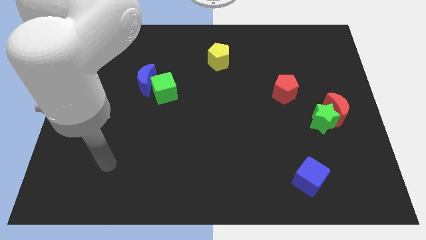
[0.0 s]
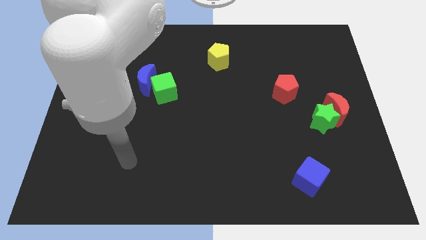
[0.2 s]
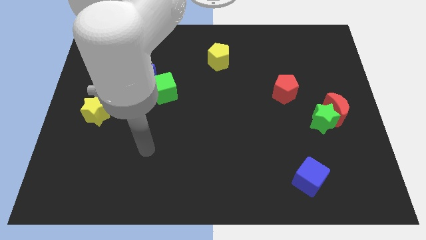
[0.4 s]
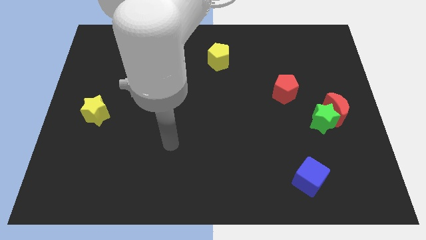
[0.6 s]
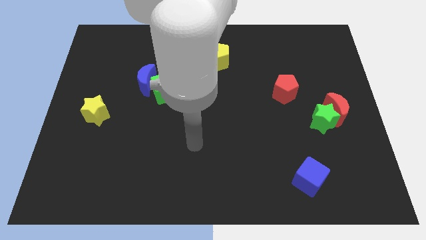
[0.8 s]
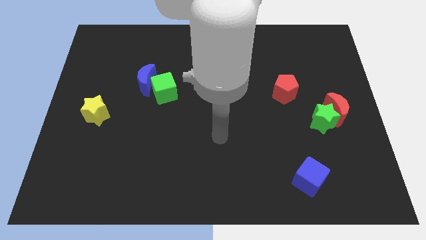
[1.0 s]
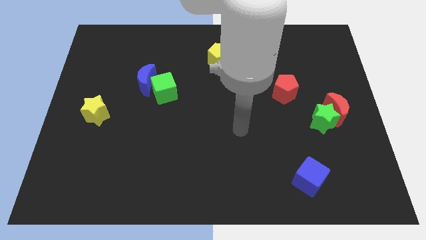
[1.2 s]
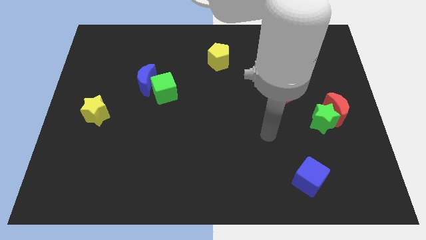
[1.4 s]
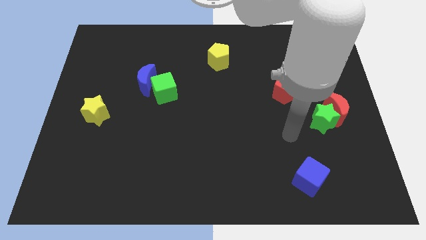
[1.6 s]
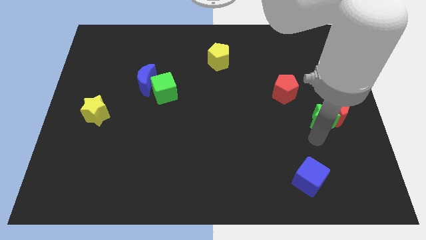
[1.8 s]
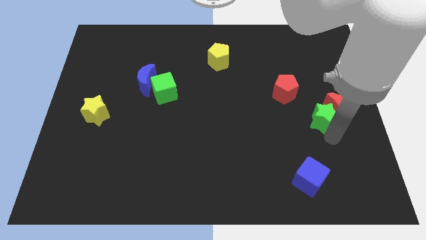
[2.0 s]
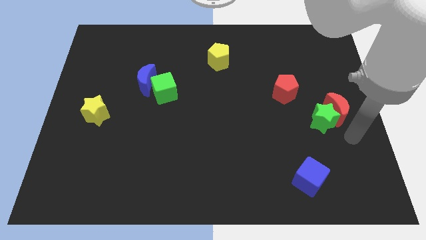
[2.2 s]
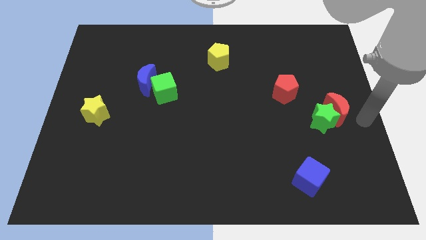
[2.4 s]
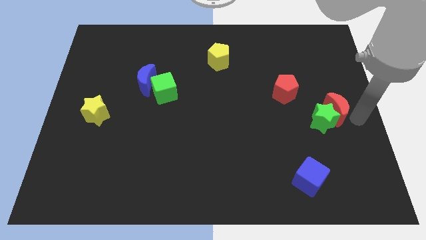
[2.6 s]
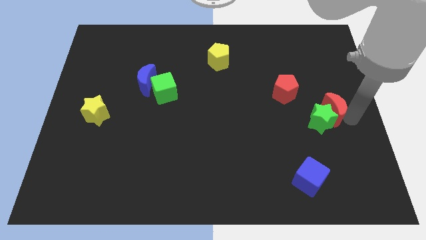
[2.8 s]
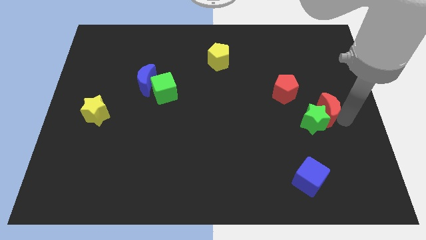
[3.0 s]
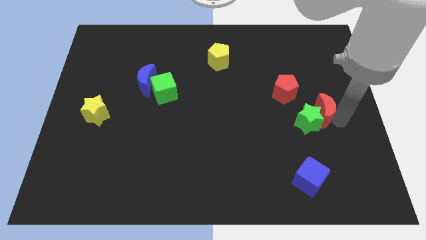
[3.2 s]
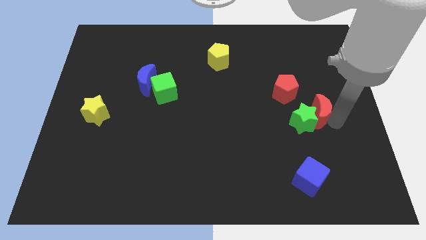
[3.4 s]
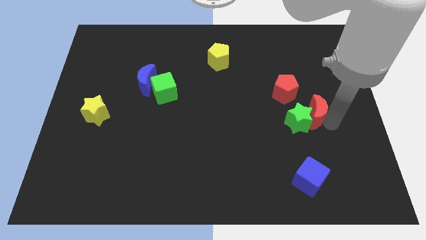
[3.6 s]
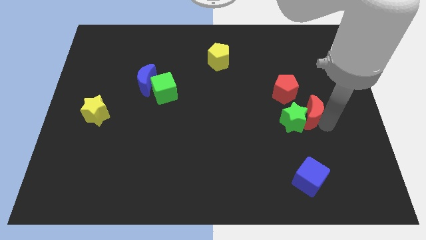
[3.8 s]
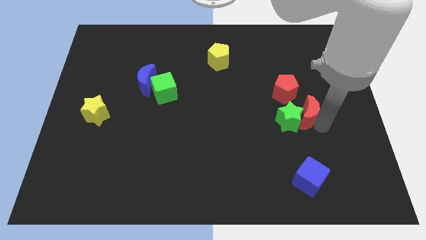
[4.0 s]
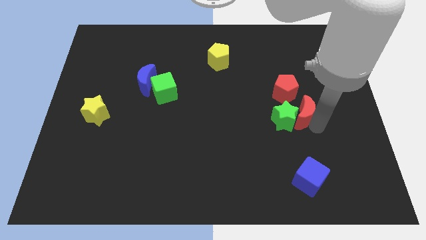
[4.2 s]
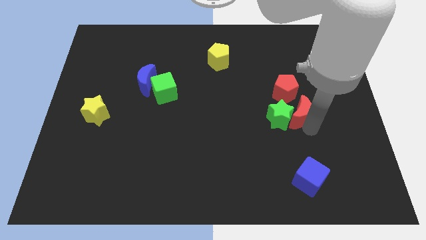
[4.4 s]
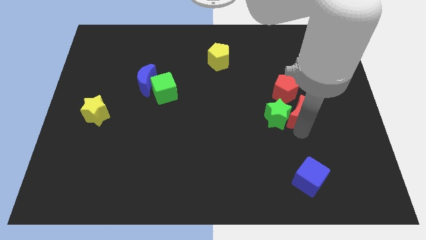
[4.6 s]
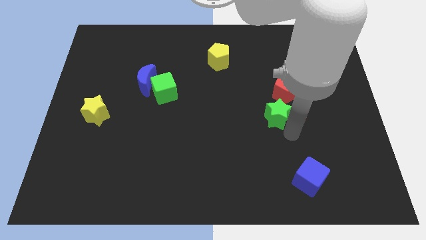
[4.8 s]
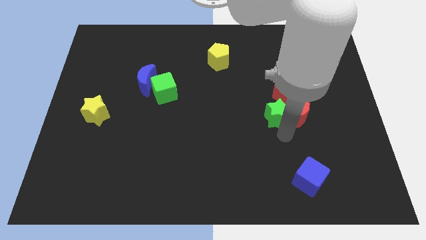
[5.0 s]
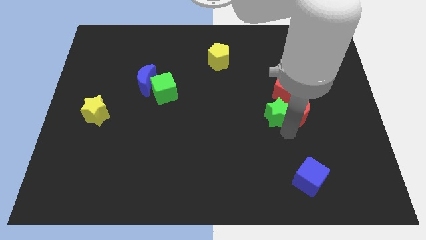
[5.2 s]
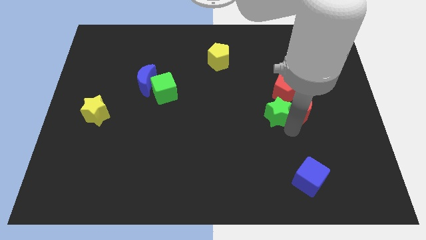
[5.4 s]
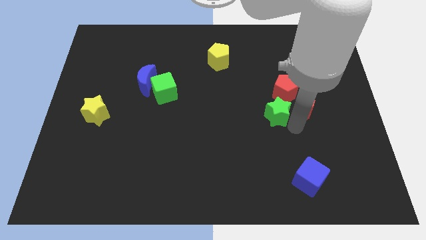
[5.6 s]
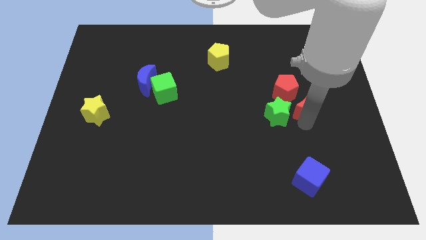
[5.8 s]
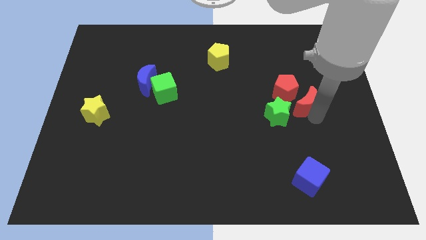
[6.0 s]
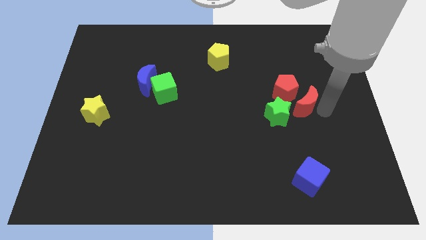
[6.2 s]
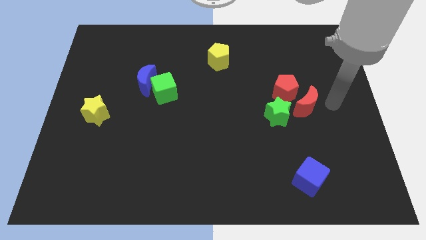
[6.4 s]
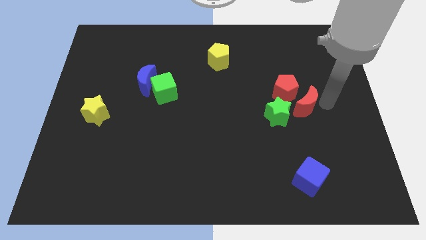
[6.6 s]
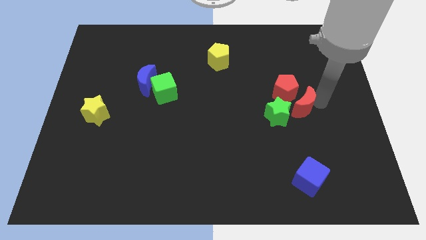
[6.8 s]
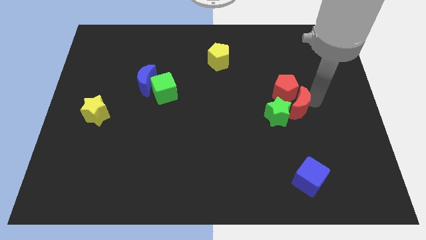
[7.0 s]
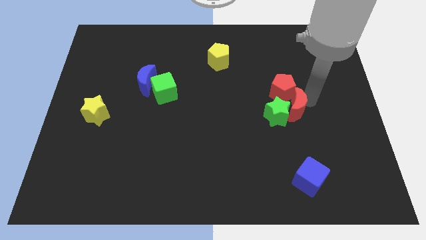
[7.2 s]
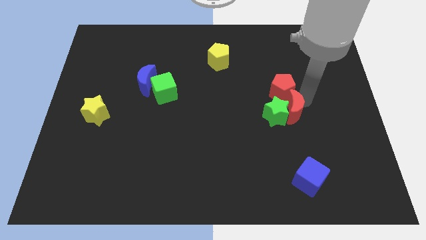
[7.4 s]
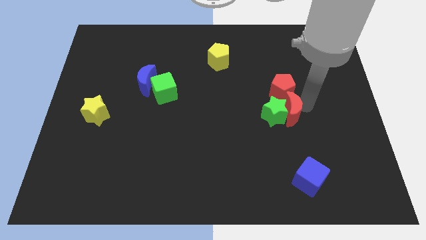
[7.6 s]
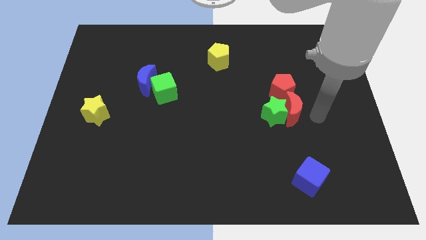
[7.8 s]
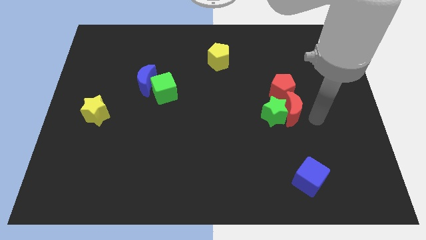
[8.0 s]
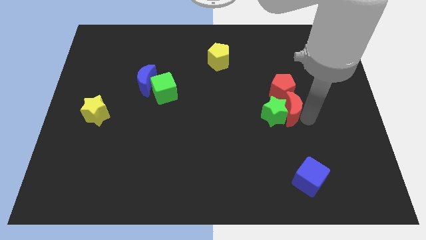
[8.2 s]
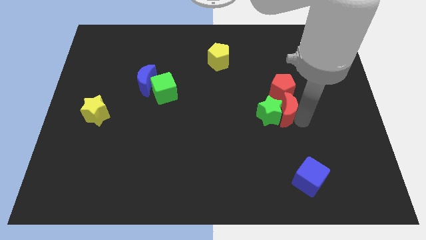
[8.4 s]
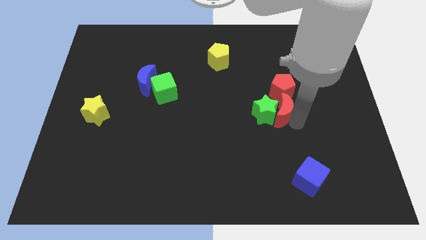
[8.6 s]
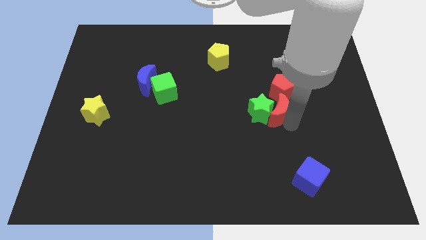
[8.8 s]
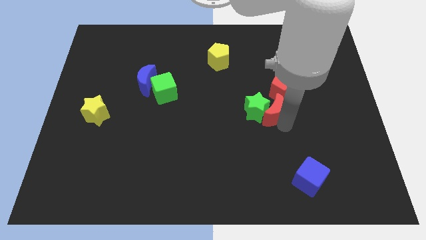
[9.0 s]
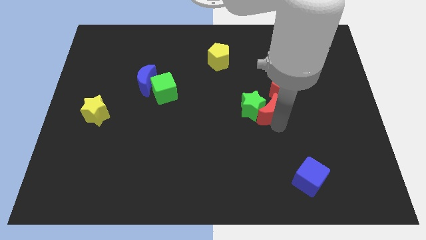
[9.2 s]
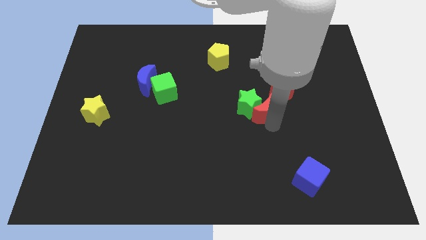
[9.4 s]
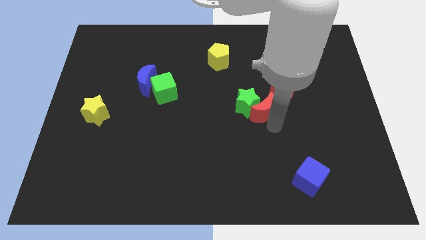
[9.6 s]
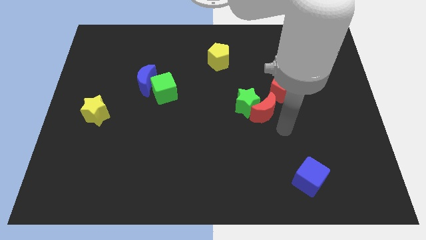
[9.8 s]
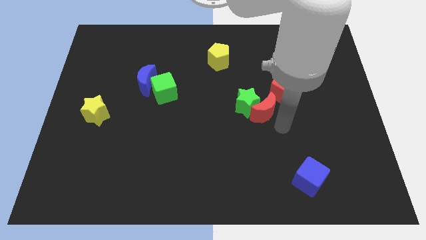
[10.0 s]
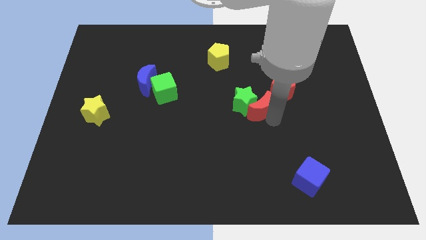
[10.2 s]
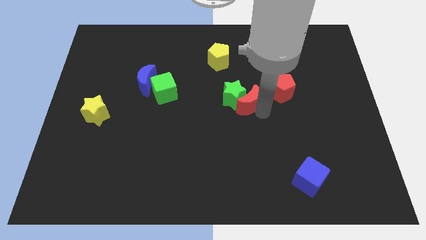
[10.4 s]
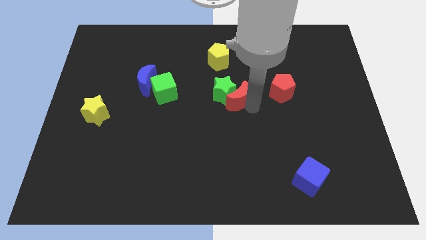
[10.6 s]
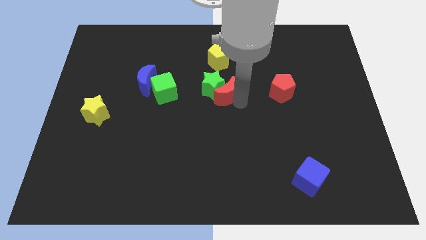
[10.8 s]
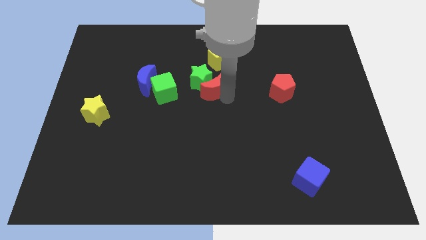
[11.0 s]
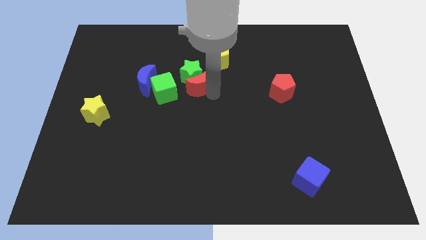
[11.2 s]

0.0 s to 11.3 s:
move the red moon diagonally down and to the left of the yellow pentagon

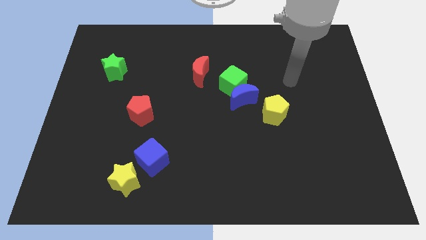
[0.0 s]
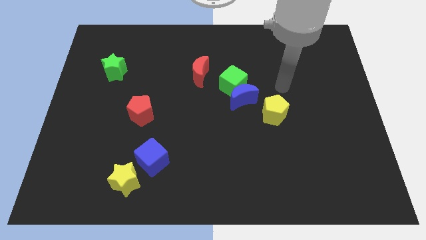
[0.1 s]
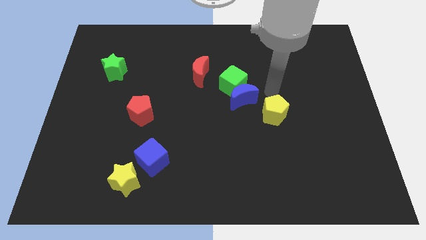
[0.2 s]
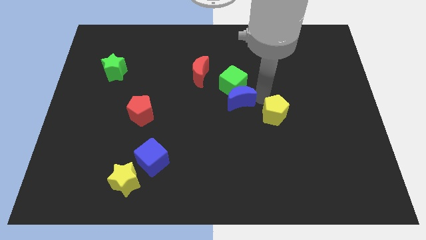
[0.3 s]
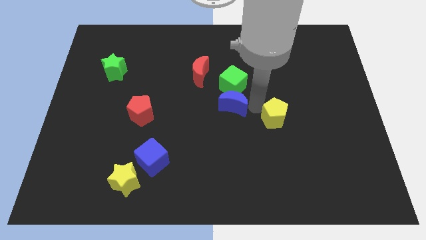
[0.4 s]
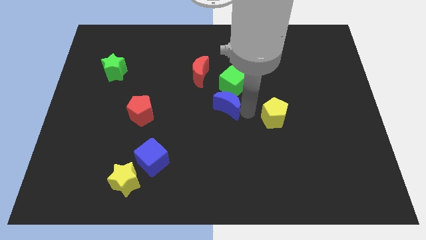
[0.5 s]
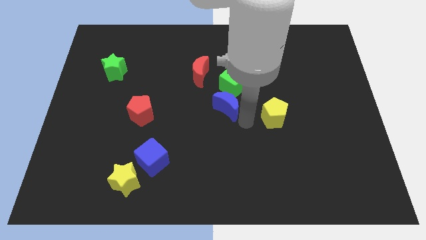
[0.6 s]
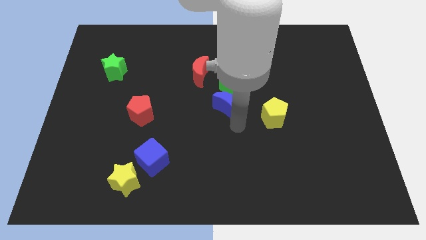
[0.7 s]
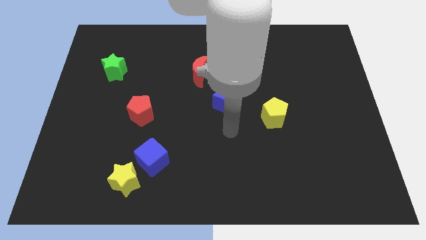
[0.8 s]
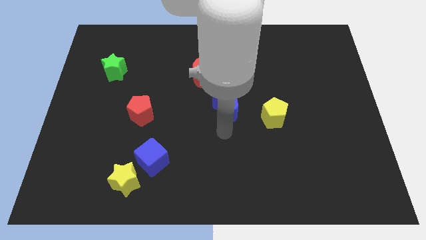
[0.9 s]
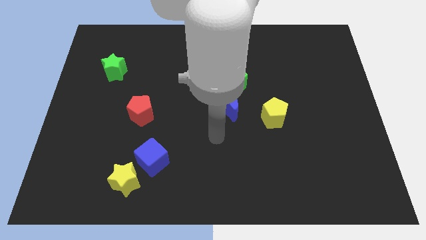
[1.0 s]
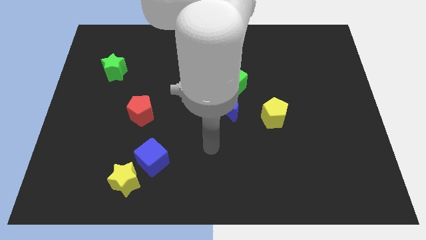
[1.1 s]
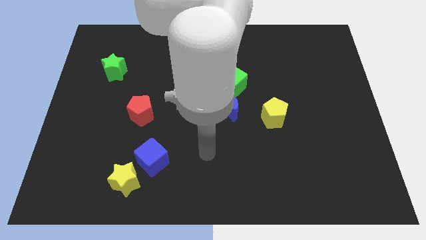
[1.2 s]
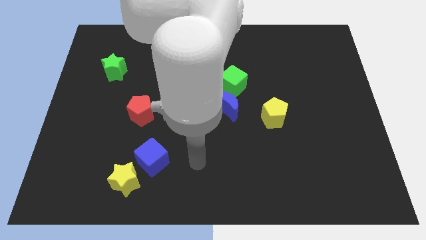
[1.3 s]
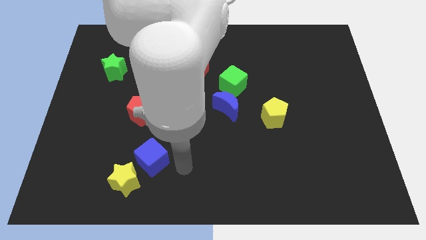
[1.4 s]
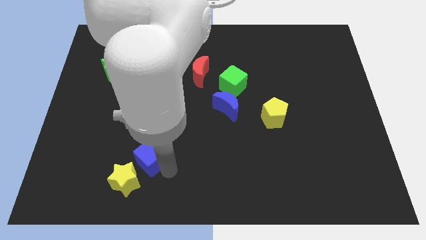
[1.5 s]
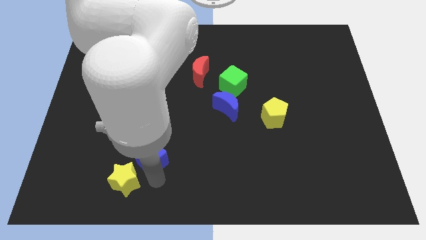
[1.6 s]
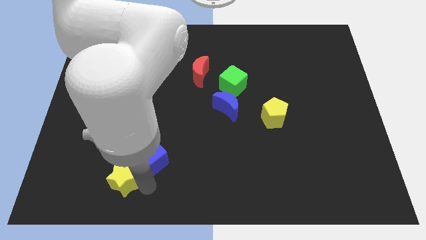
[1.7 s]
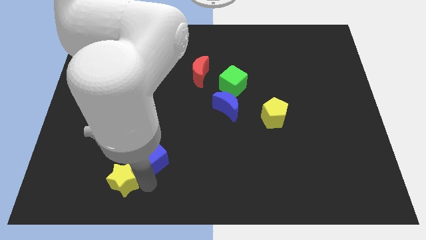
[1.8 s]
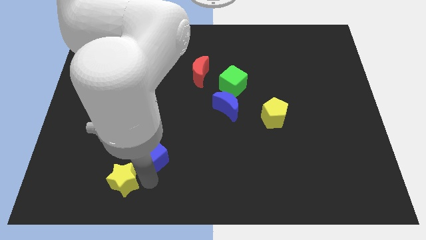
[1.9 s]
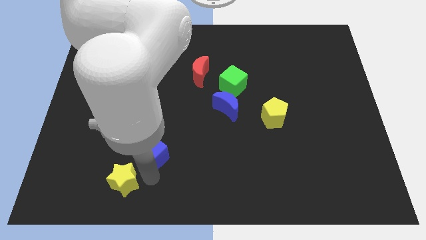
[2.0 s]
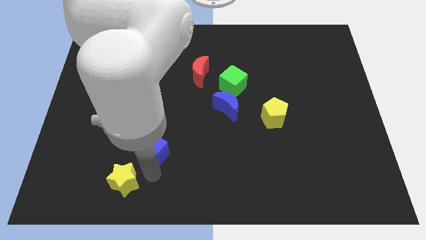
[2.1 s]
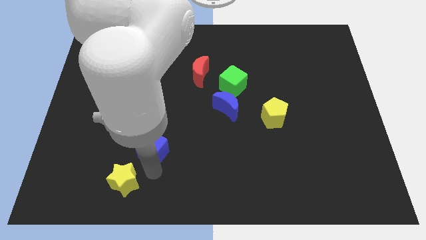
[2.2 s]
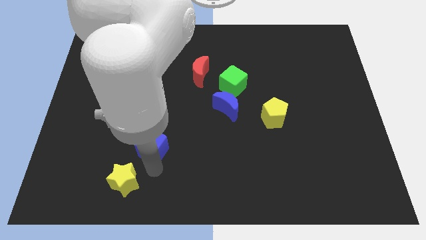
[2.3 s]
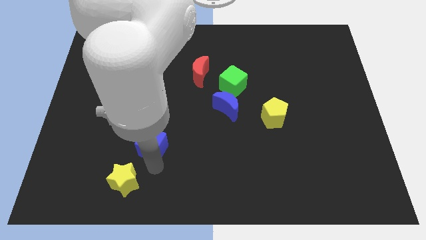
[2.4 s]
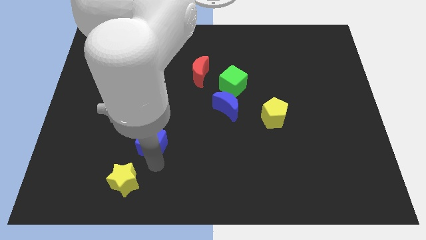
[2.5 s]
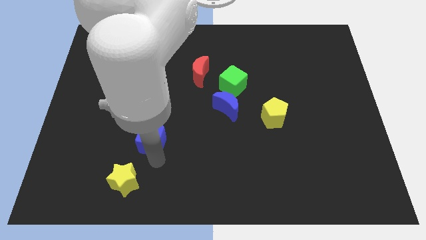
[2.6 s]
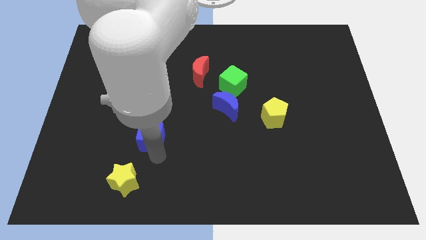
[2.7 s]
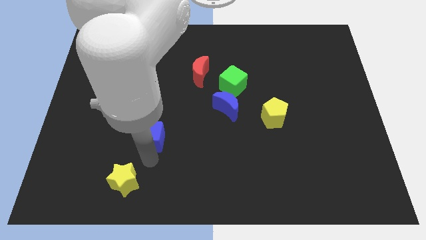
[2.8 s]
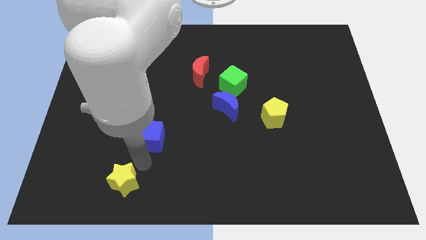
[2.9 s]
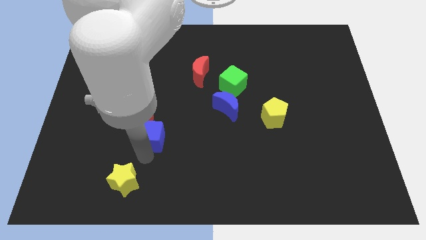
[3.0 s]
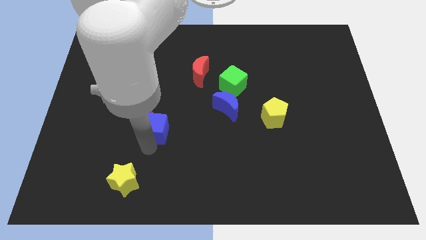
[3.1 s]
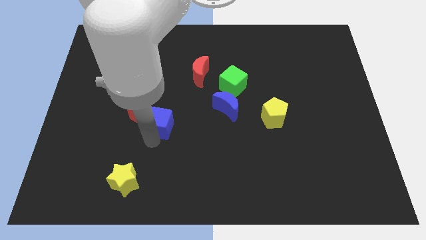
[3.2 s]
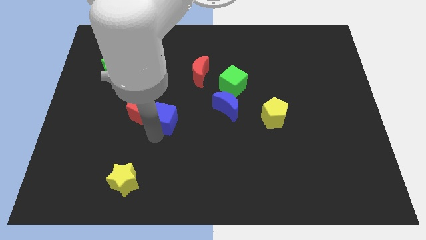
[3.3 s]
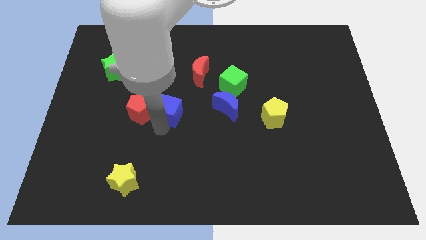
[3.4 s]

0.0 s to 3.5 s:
slide the blue cube to the top right of the red pentagon
